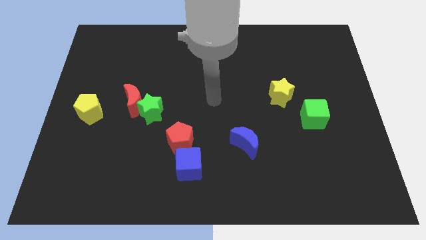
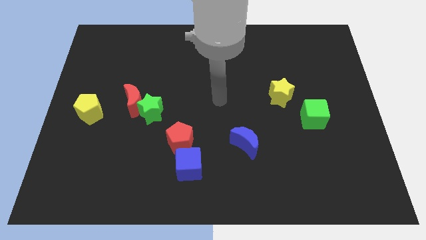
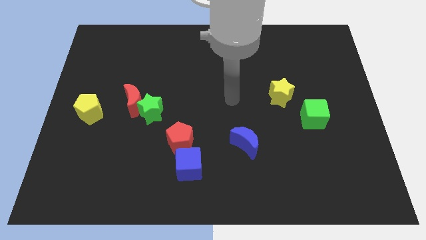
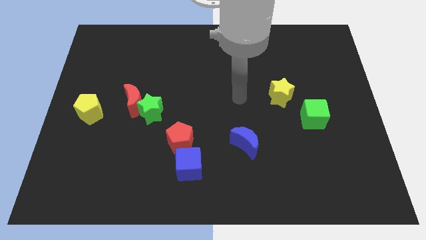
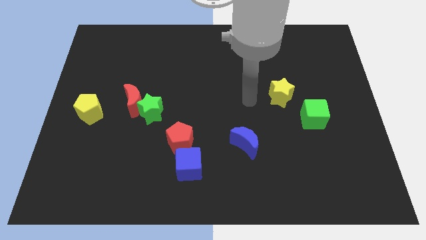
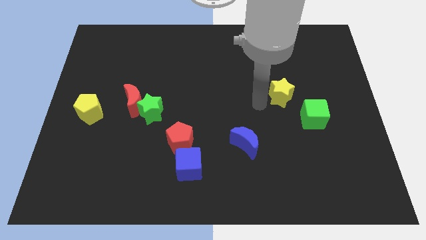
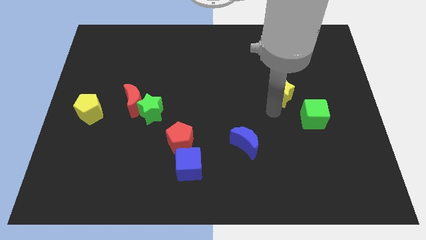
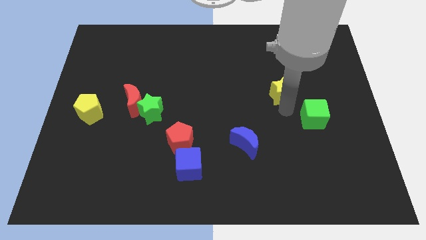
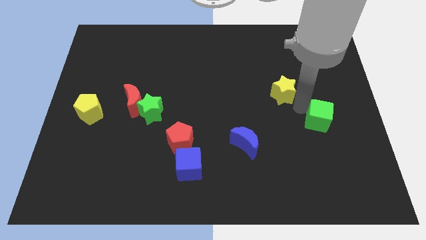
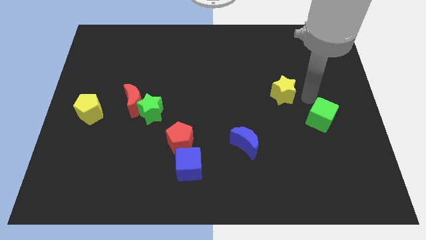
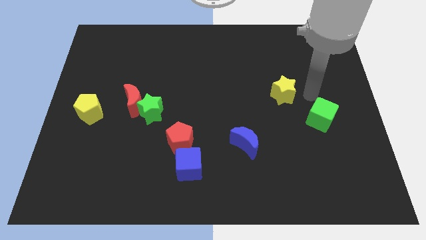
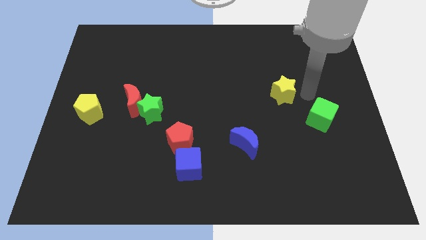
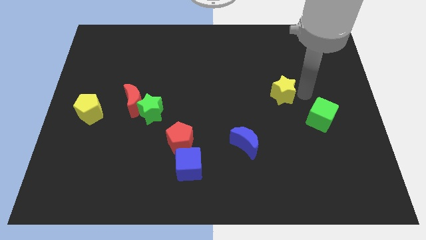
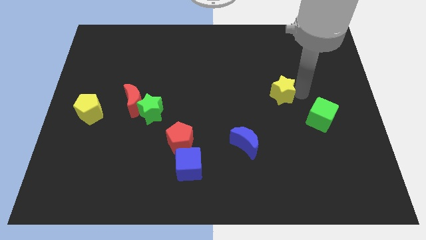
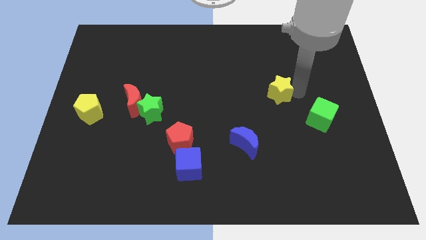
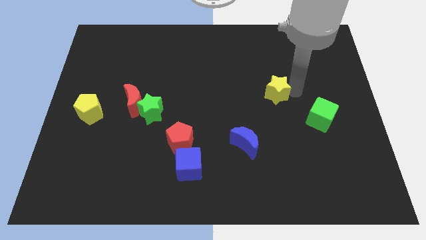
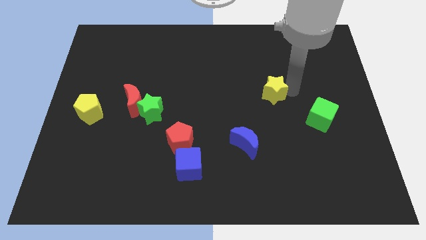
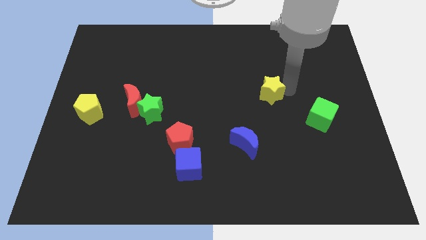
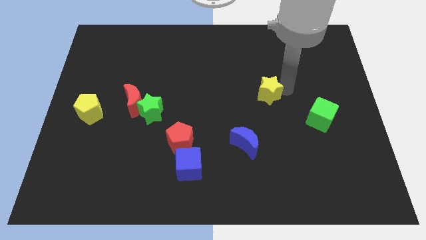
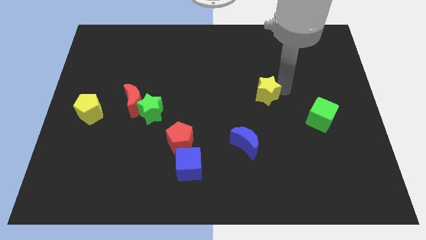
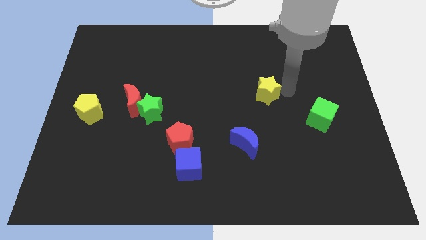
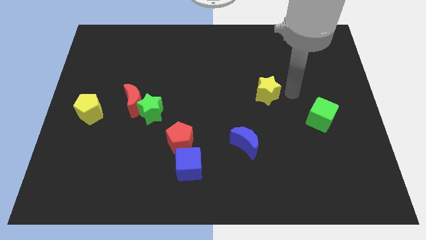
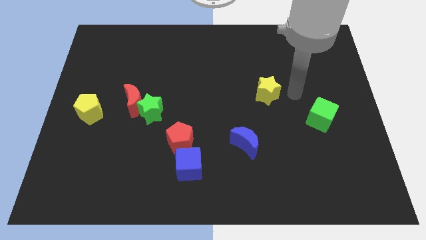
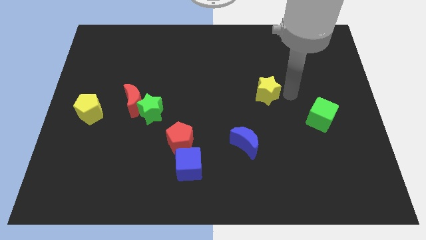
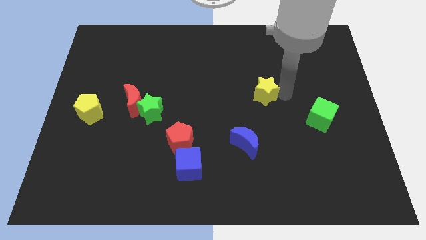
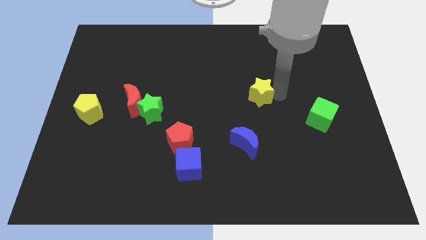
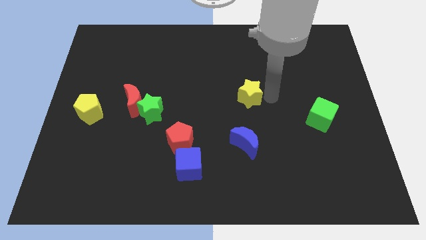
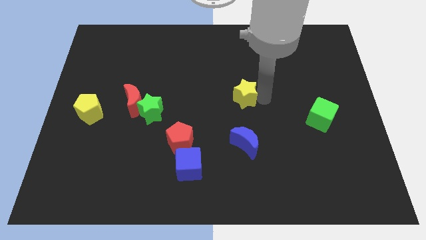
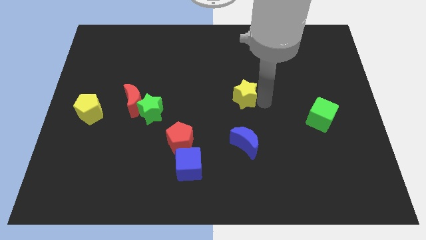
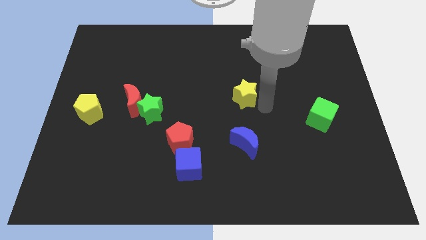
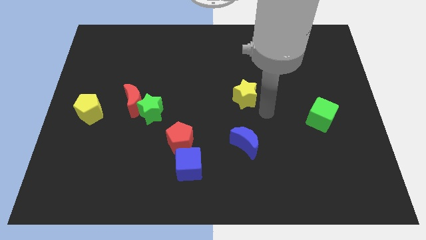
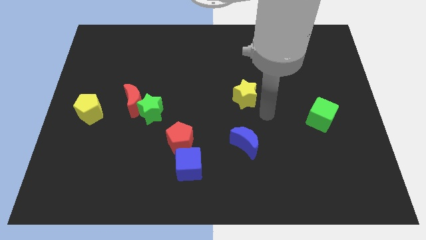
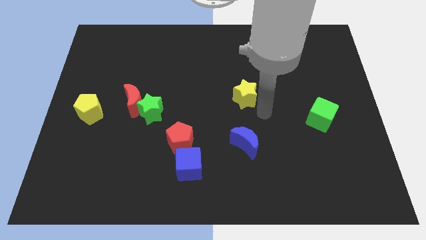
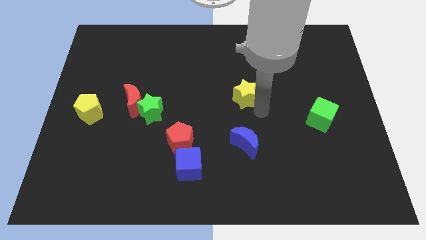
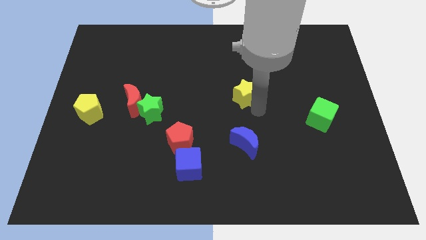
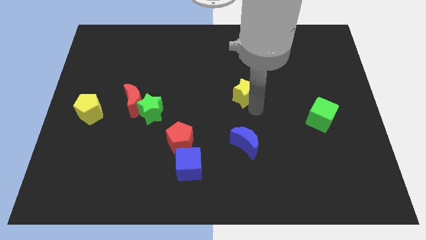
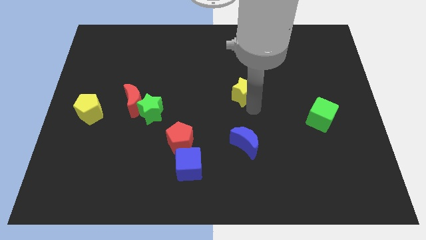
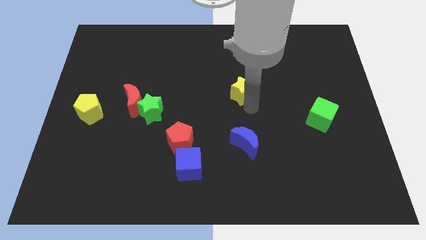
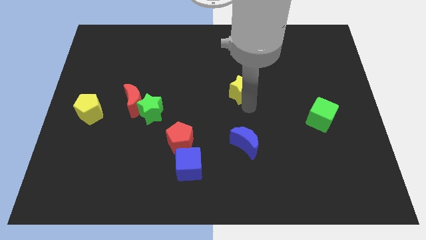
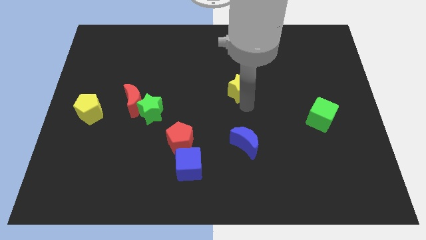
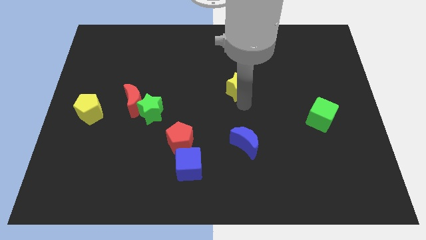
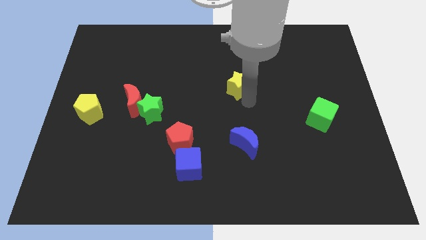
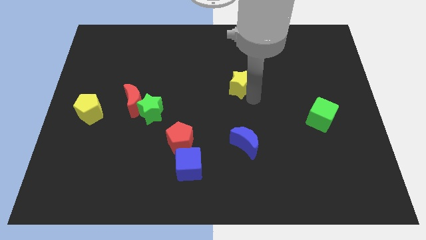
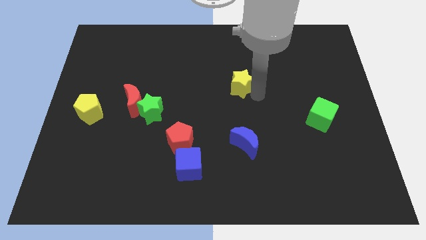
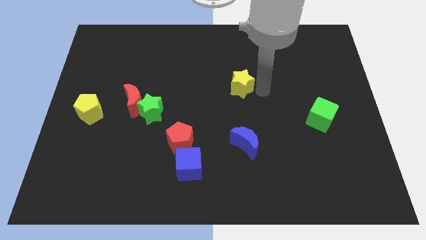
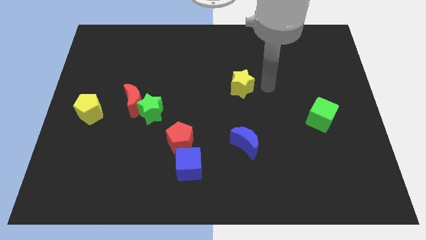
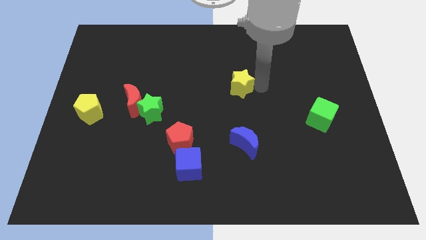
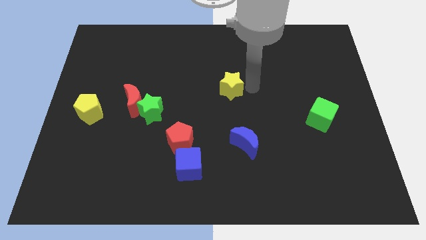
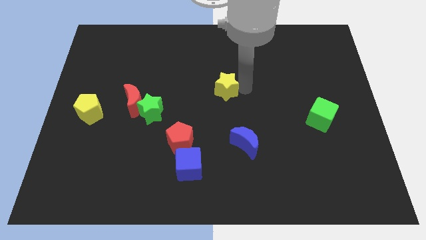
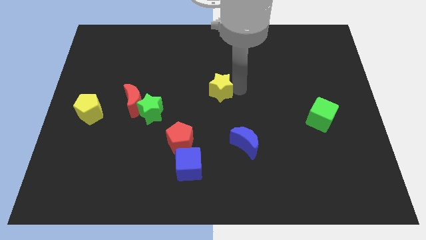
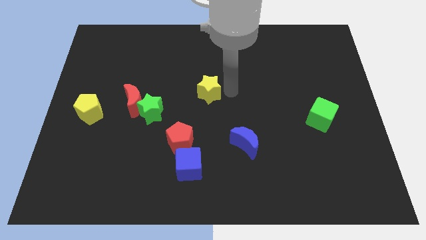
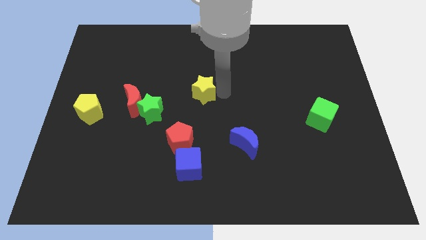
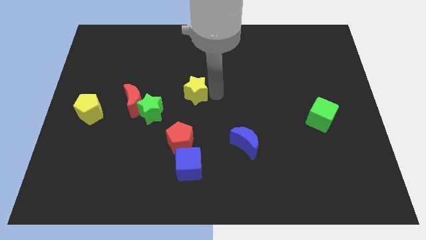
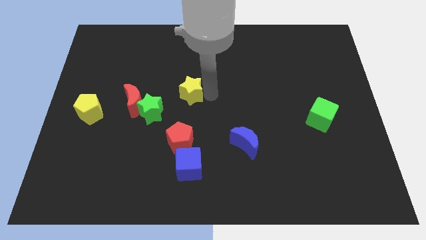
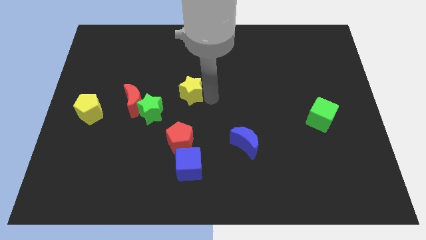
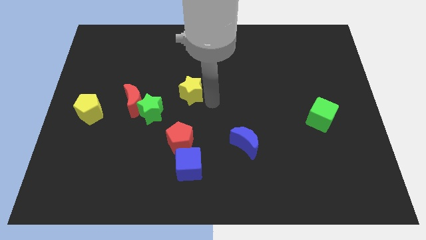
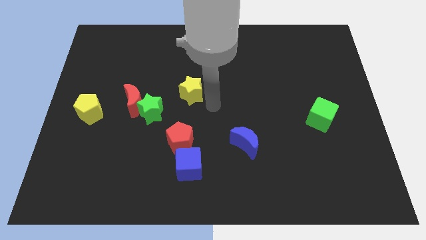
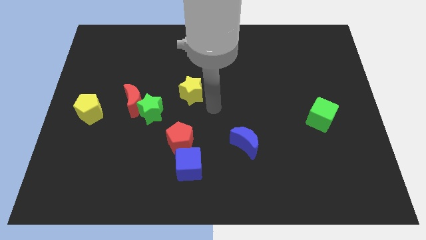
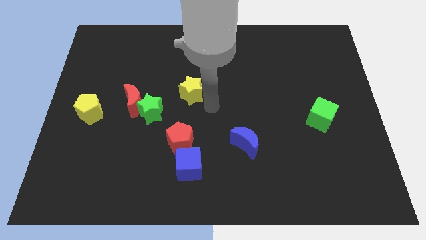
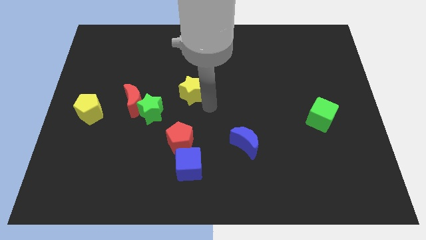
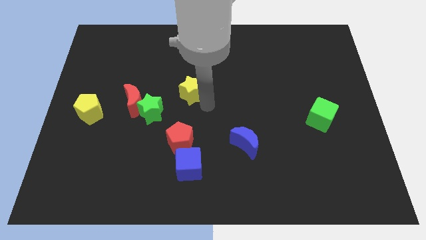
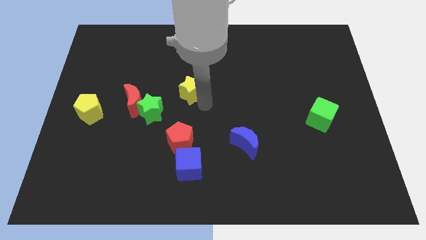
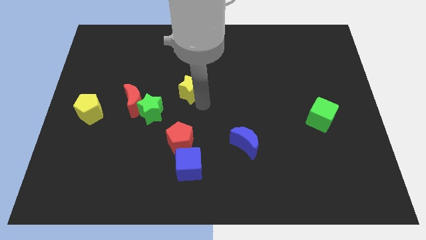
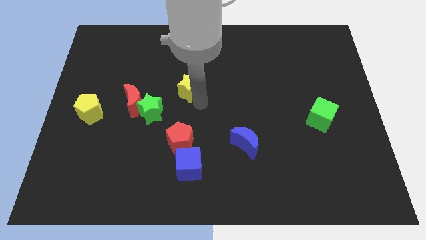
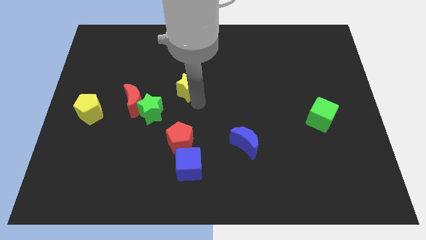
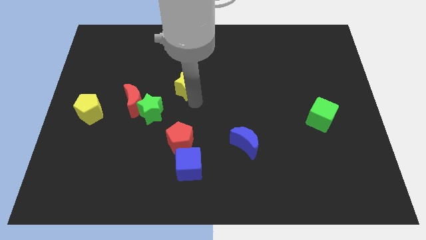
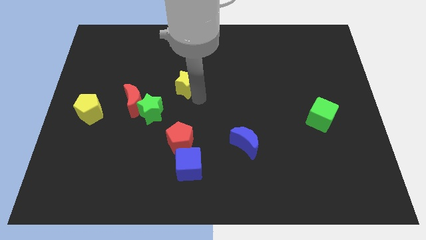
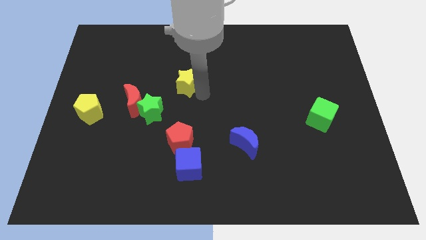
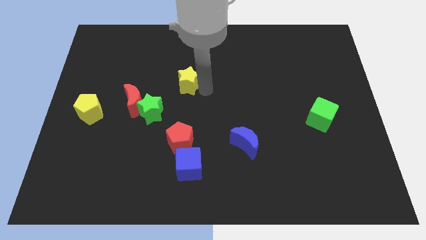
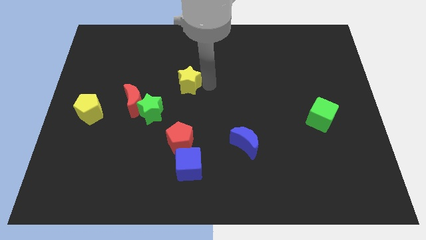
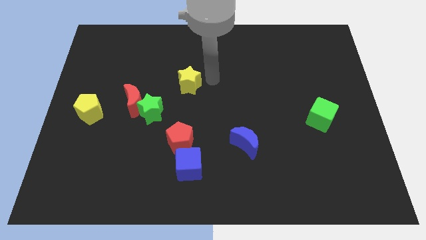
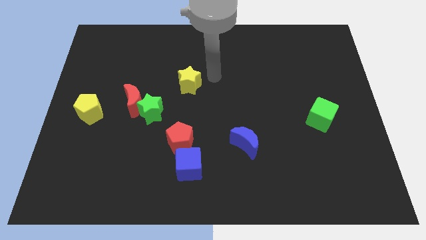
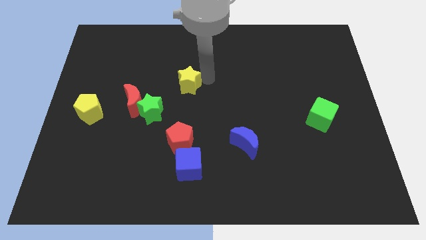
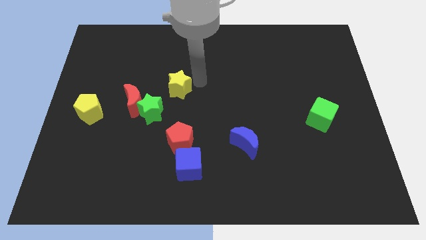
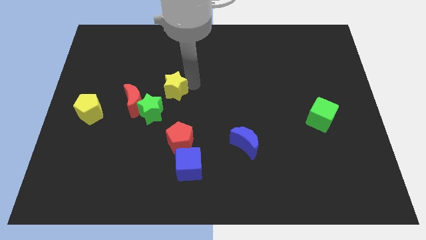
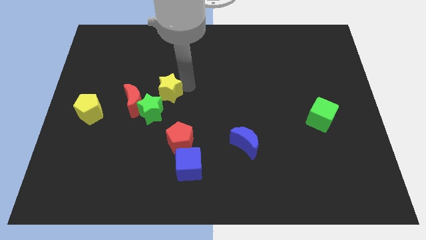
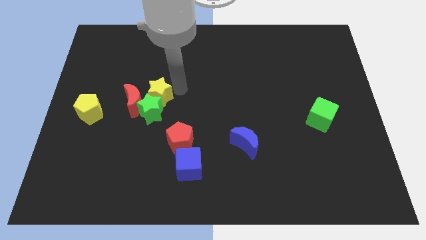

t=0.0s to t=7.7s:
slide the yellow star towards the red moon
